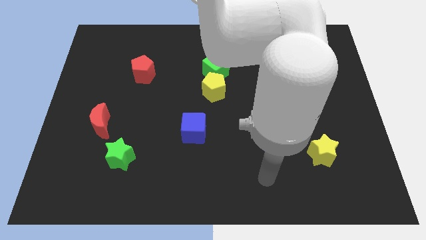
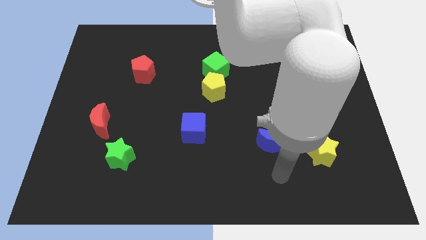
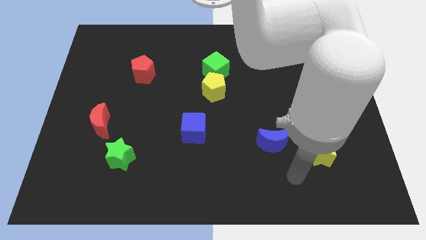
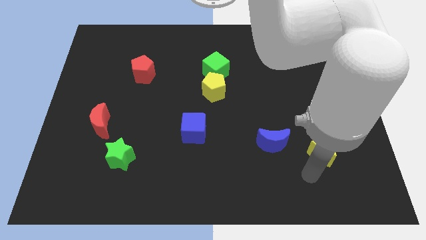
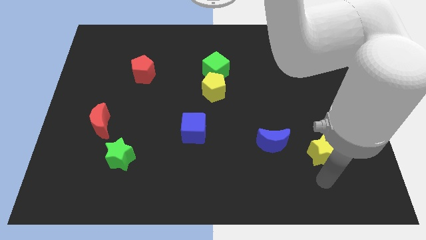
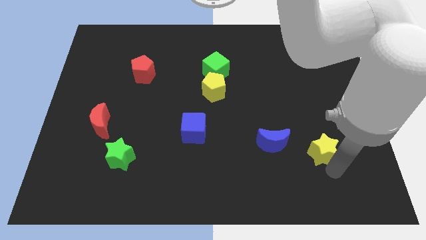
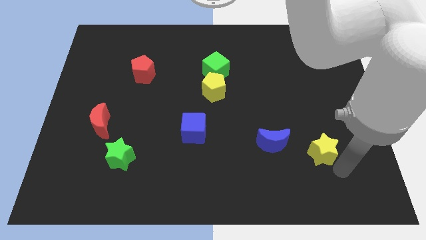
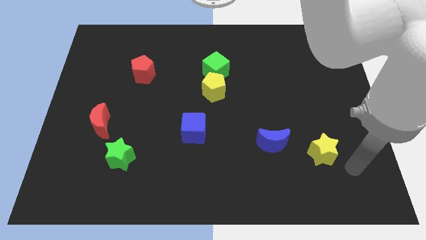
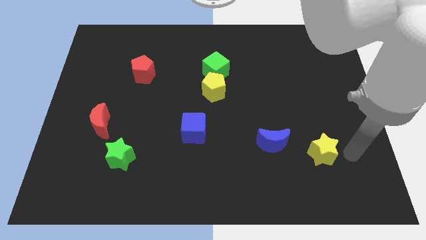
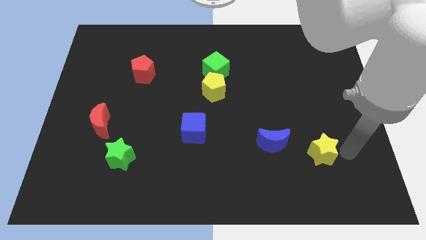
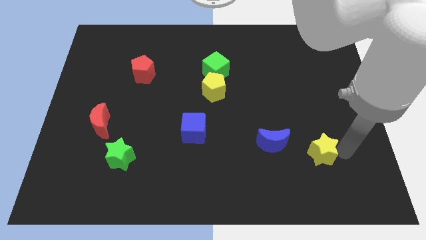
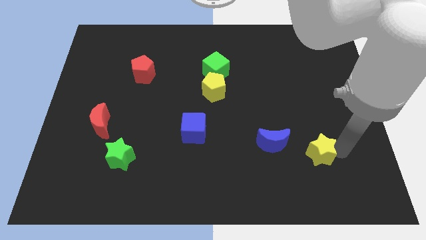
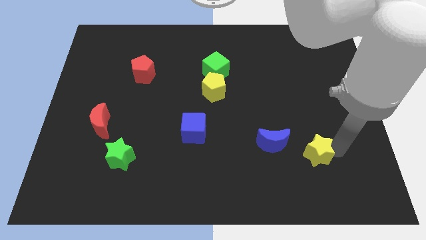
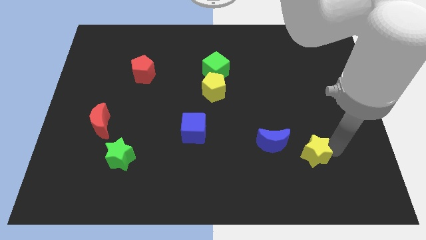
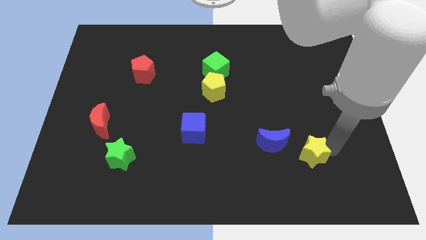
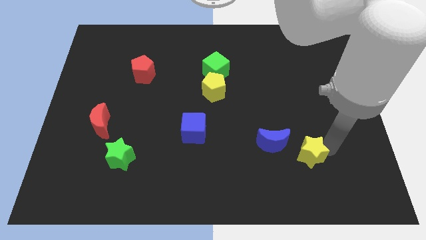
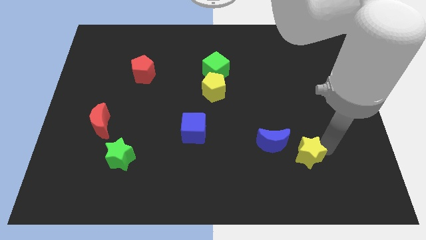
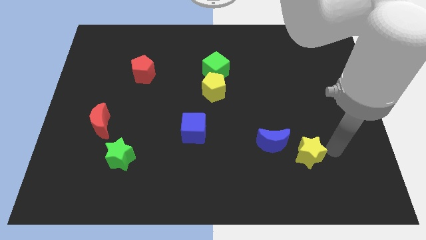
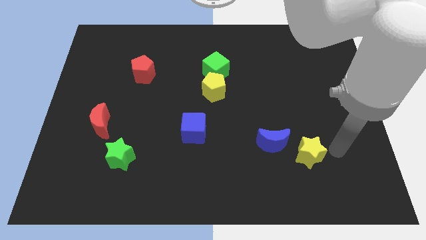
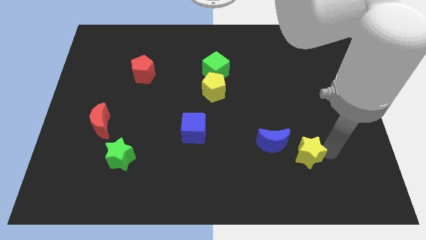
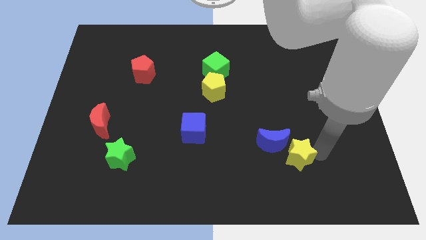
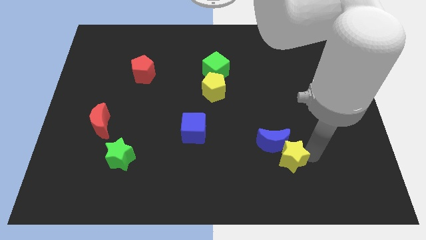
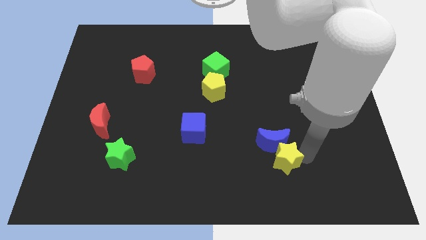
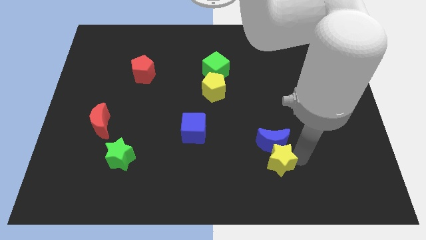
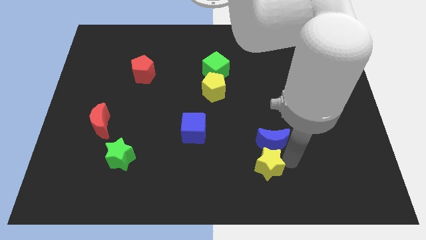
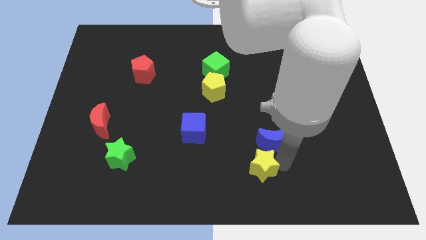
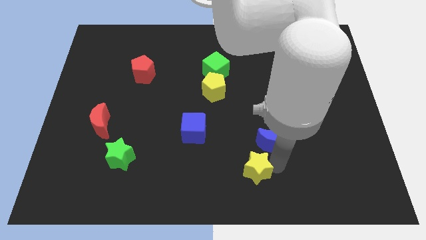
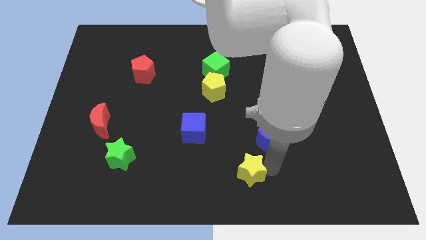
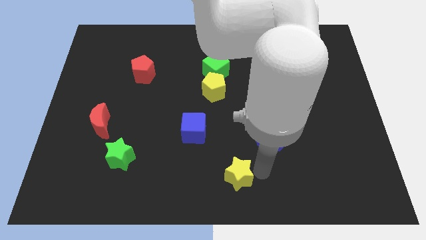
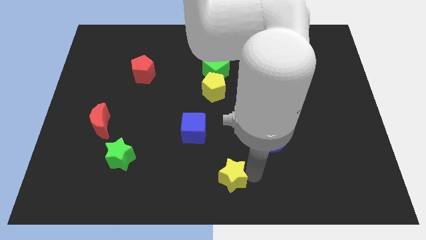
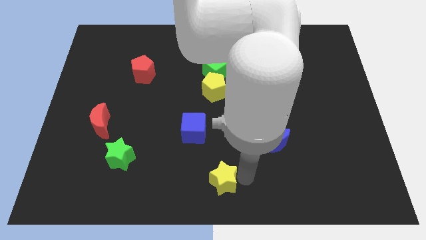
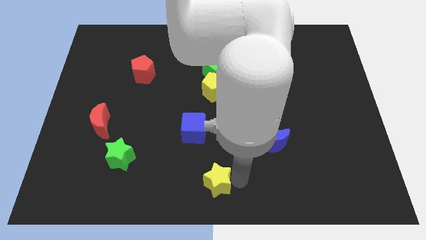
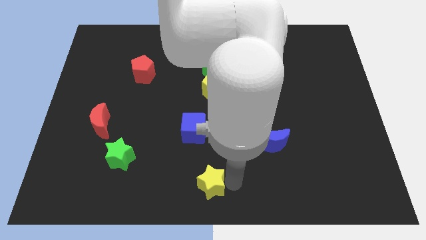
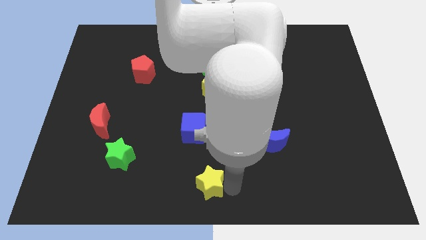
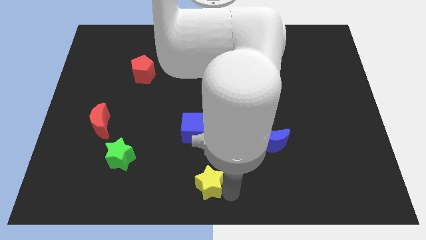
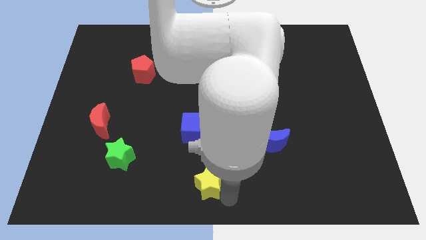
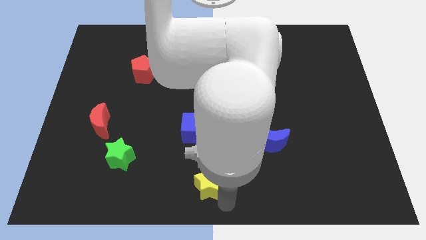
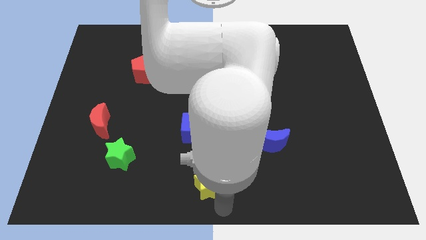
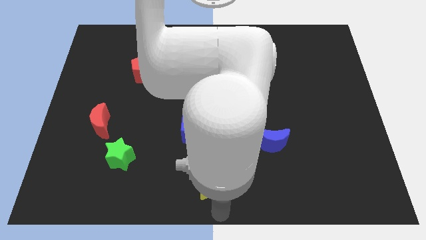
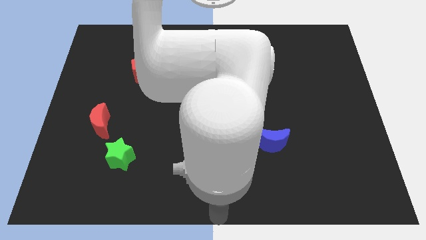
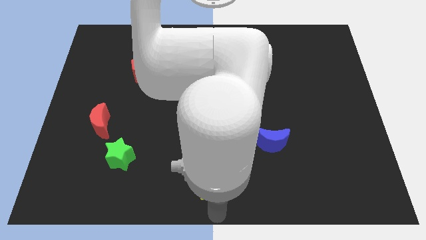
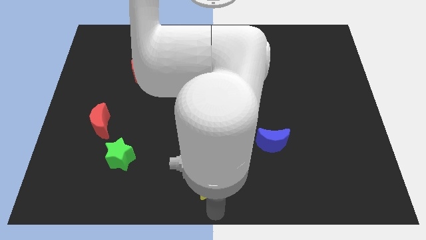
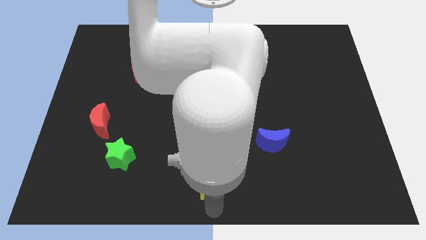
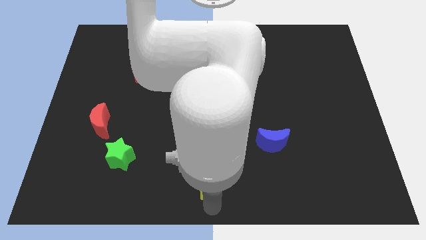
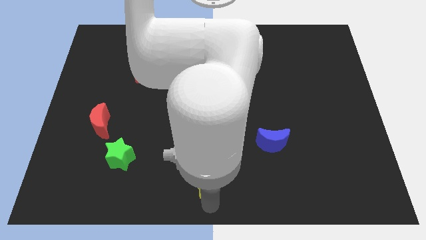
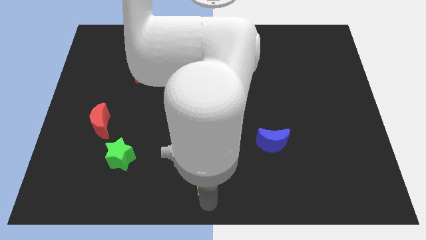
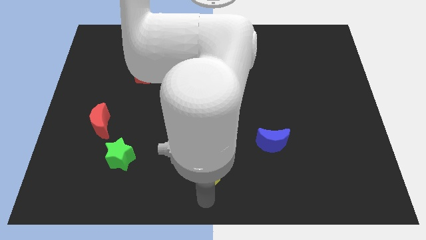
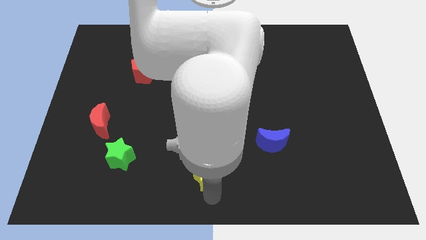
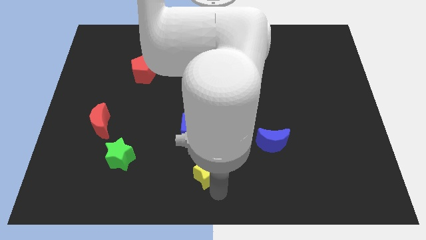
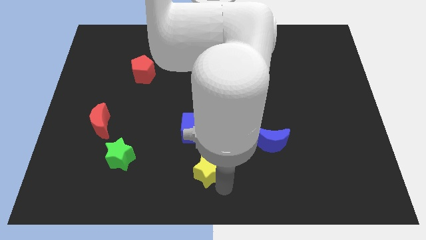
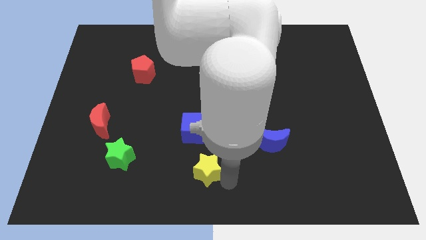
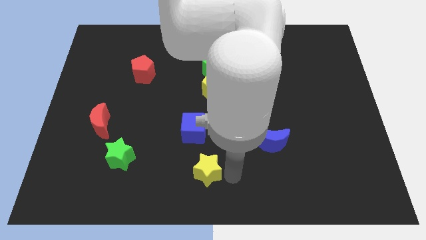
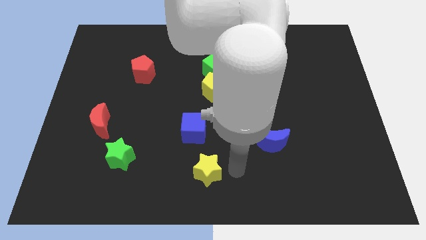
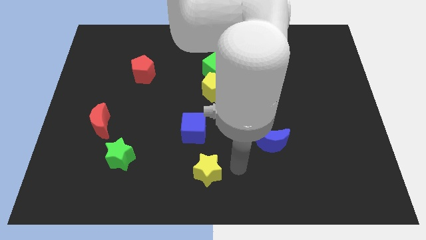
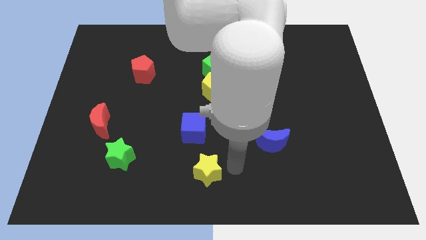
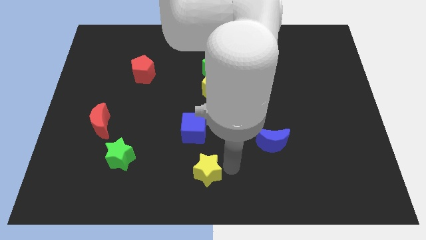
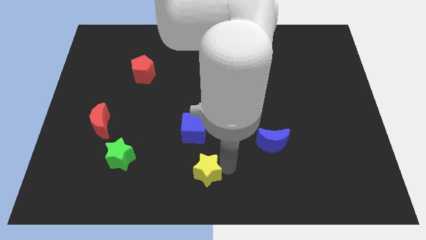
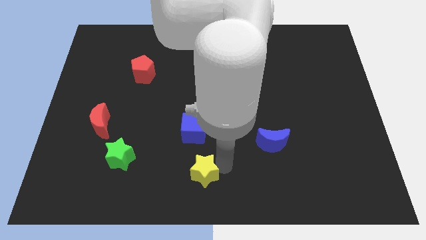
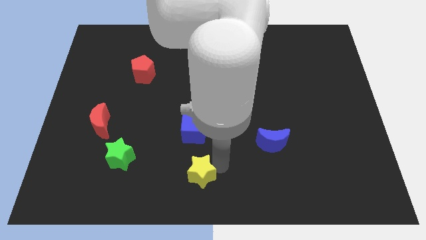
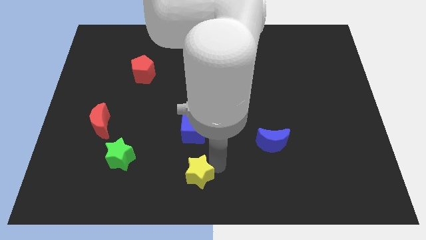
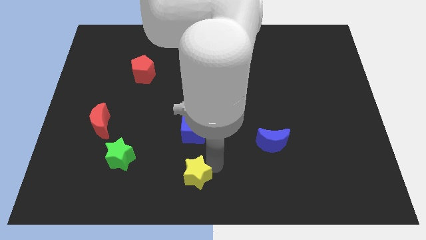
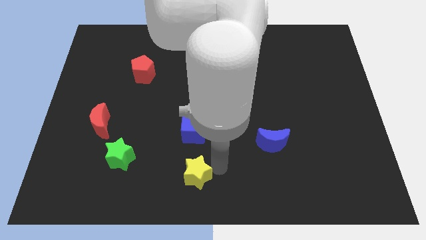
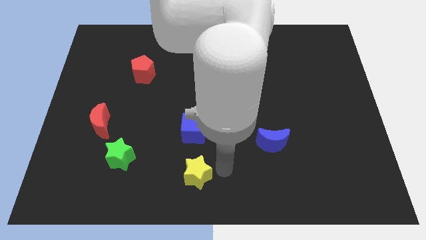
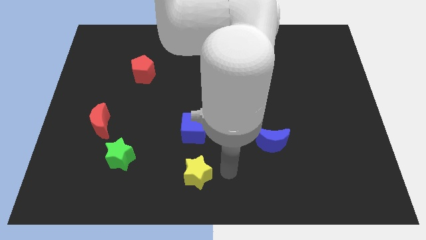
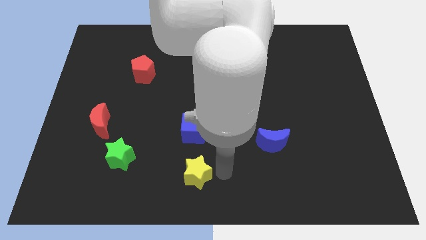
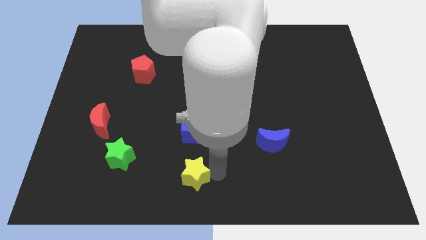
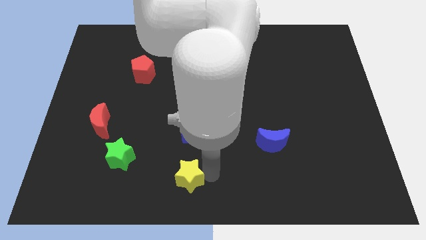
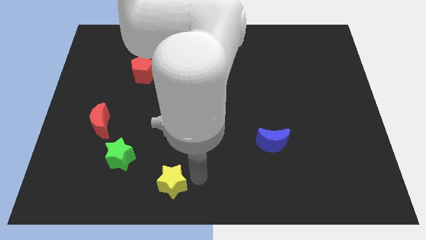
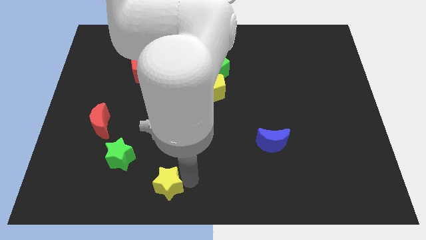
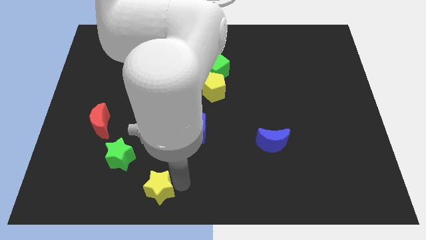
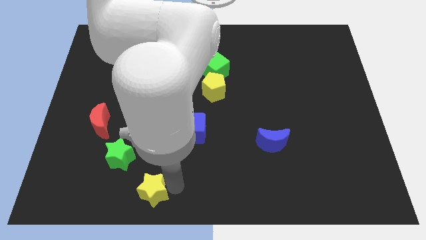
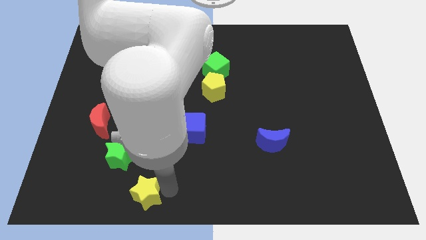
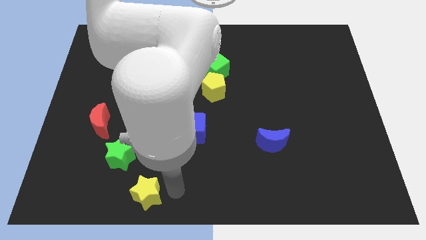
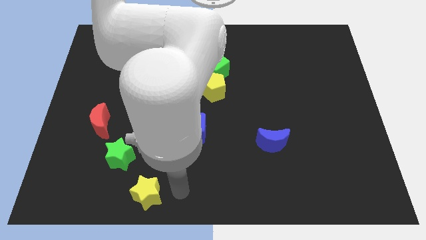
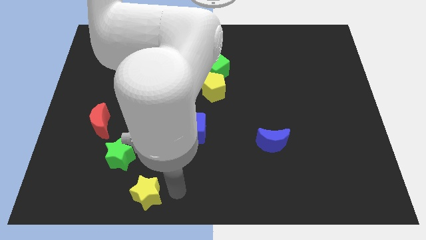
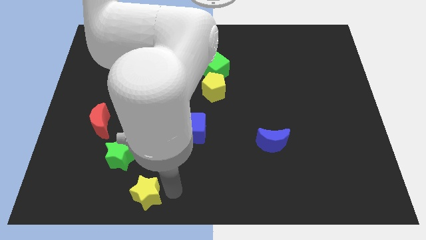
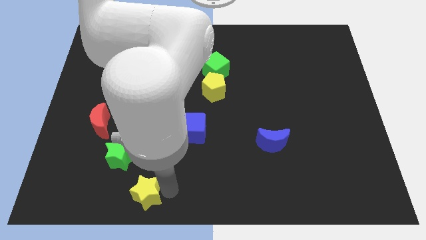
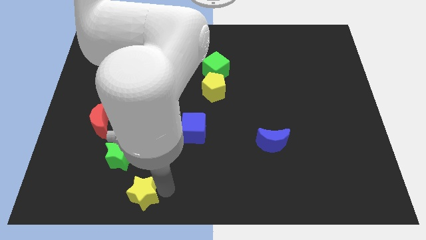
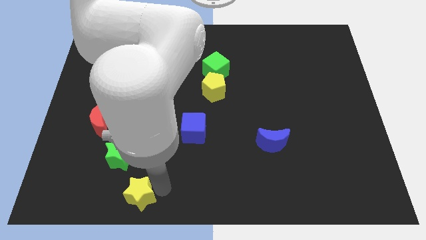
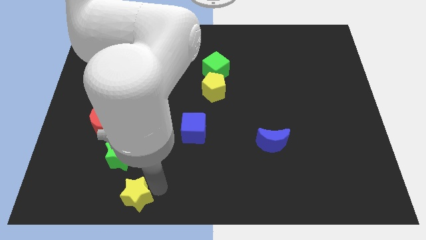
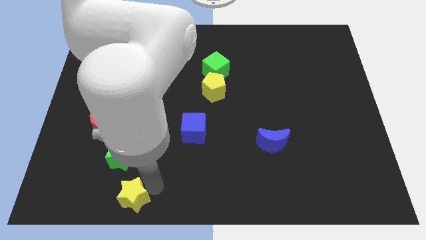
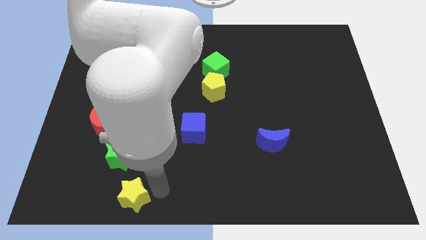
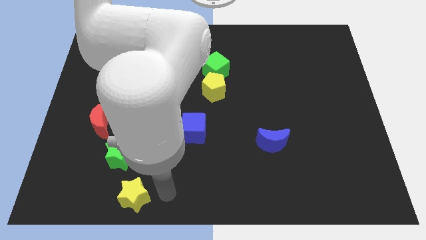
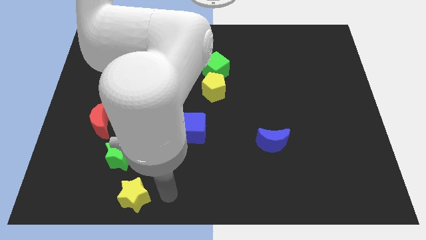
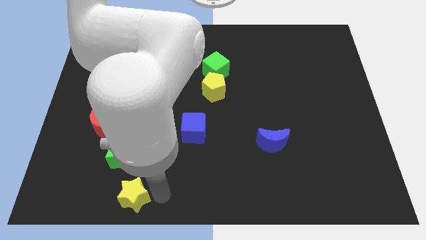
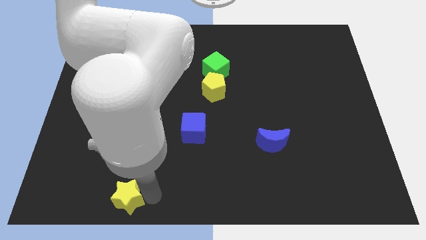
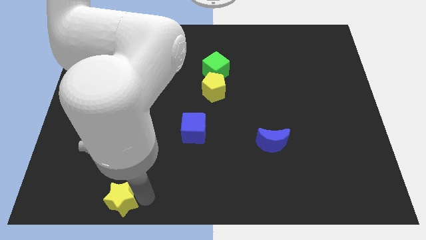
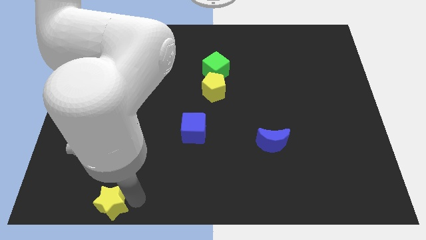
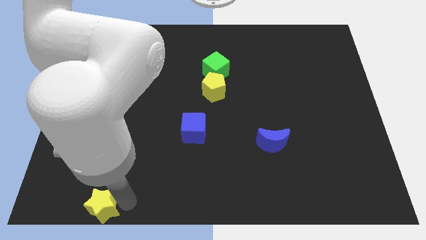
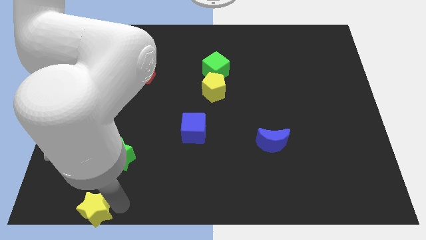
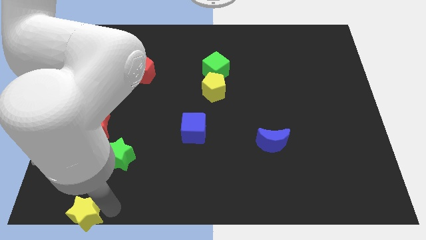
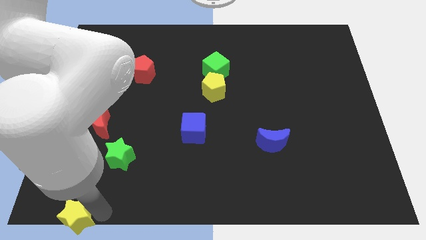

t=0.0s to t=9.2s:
put the yellow star to the bottom left of the board
